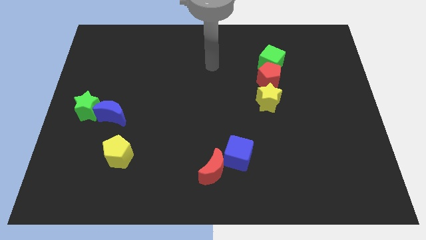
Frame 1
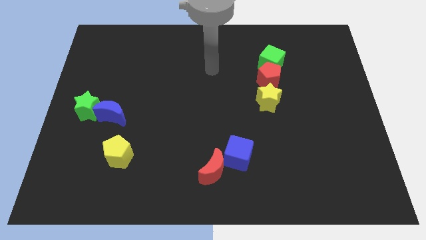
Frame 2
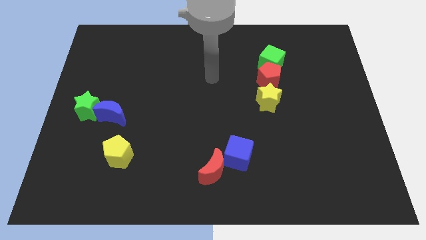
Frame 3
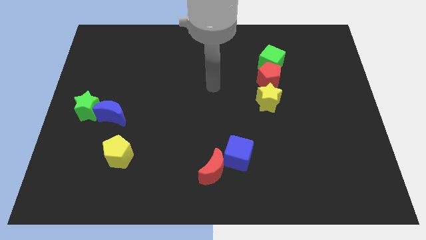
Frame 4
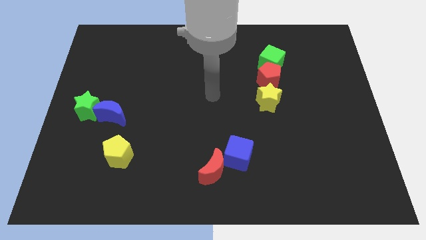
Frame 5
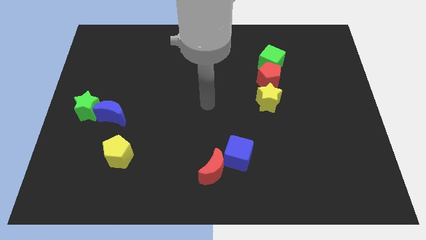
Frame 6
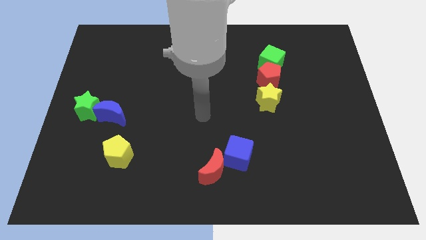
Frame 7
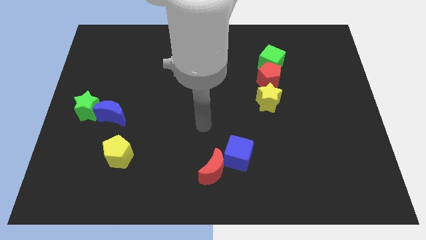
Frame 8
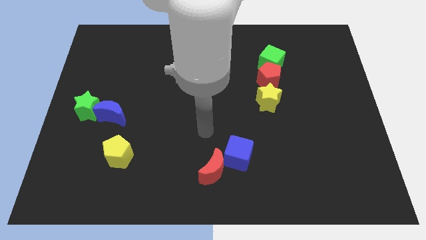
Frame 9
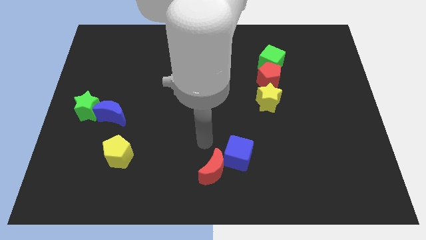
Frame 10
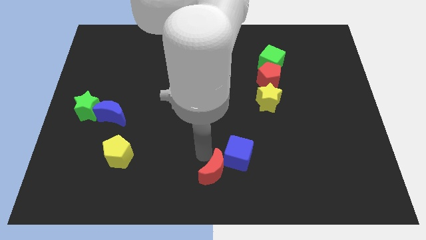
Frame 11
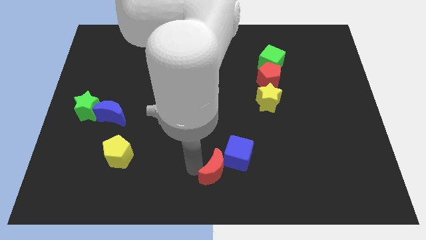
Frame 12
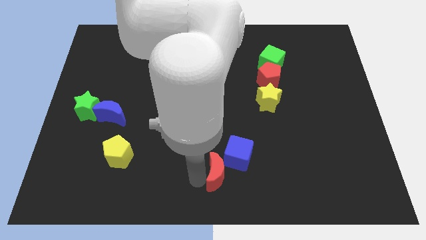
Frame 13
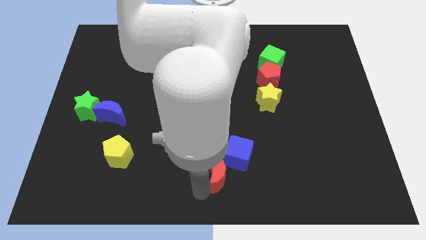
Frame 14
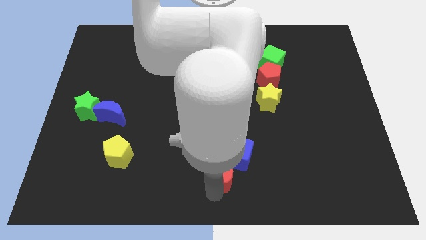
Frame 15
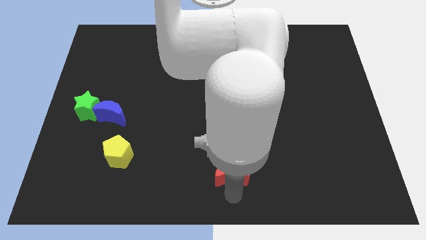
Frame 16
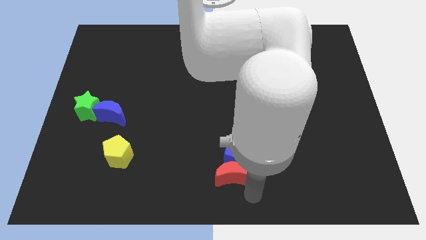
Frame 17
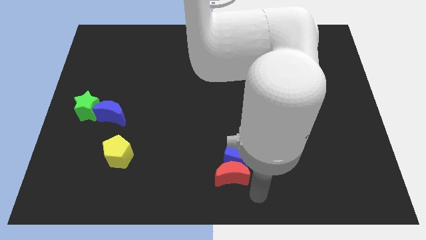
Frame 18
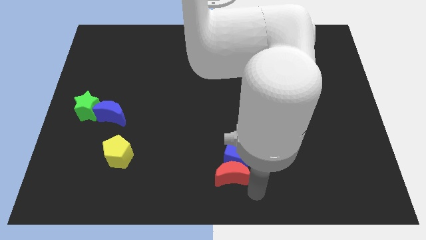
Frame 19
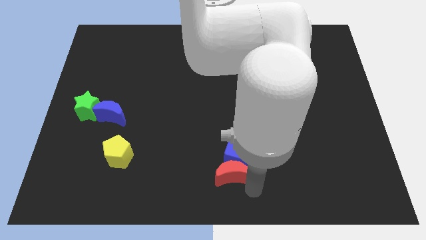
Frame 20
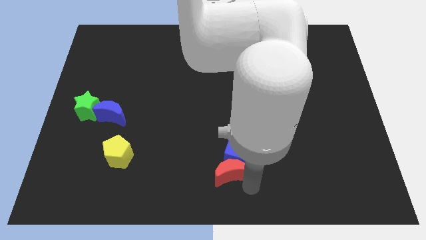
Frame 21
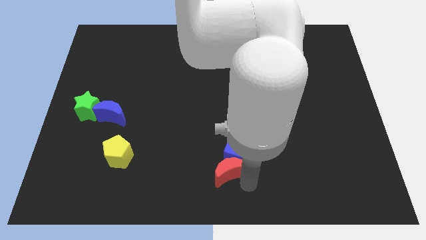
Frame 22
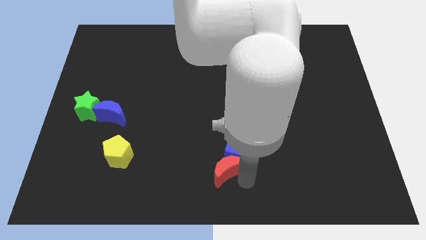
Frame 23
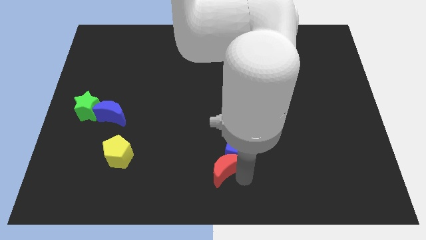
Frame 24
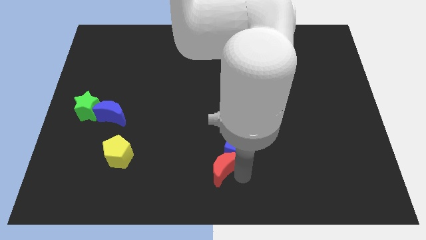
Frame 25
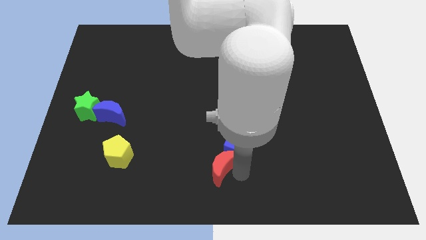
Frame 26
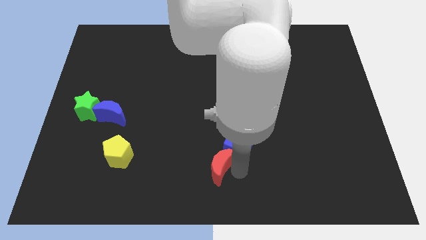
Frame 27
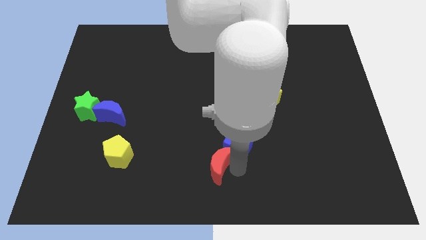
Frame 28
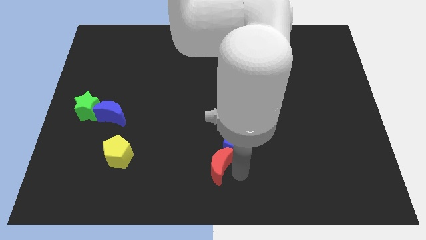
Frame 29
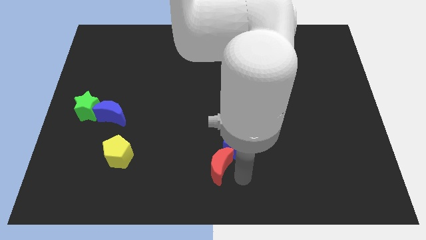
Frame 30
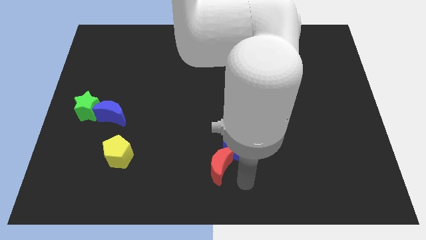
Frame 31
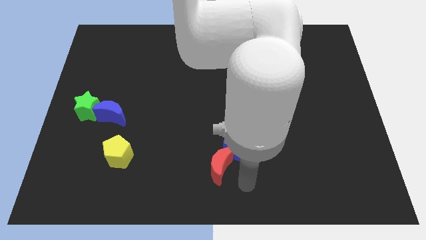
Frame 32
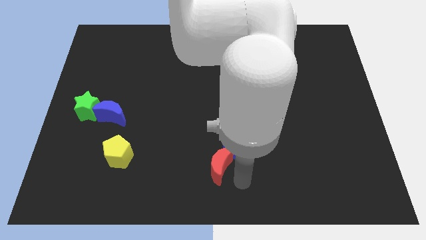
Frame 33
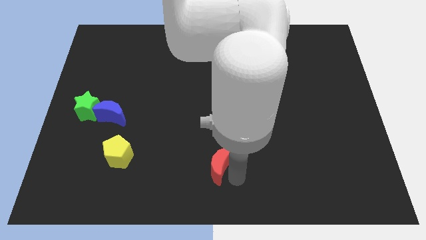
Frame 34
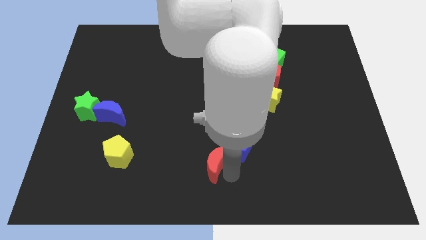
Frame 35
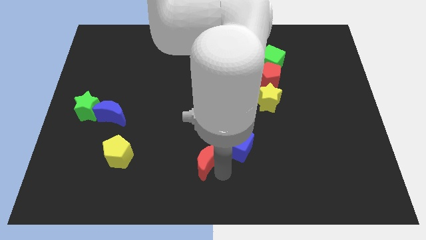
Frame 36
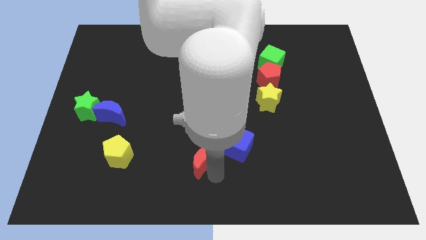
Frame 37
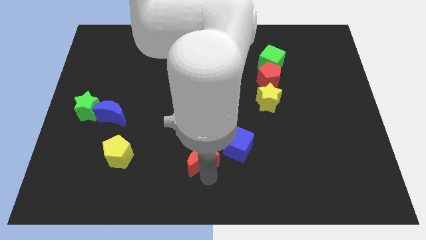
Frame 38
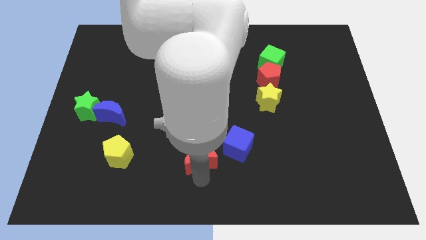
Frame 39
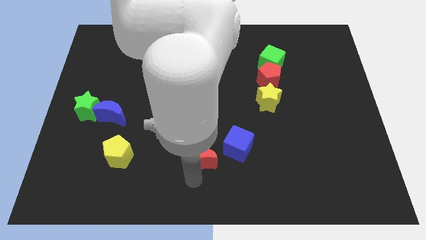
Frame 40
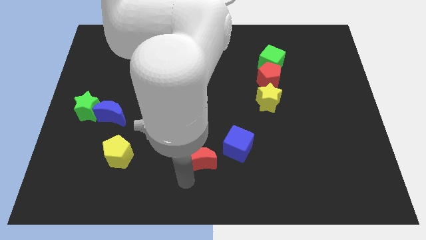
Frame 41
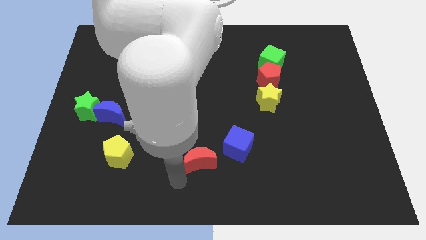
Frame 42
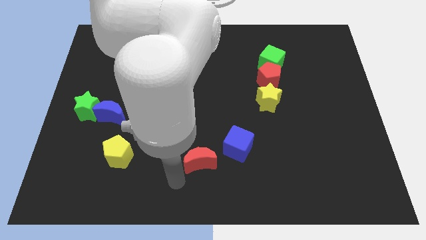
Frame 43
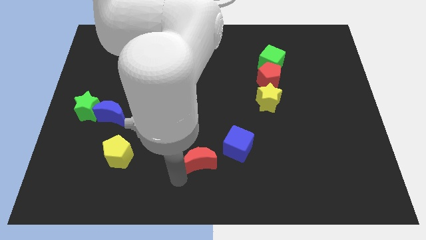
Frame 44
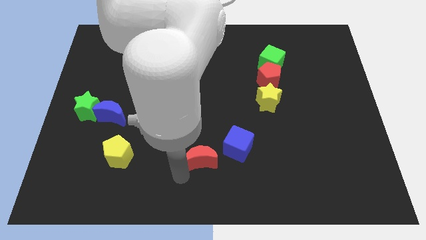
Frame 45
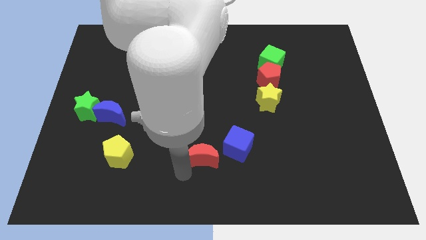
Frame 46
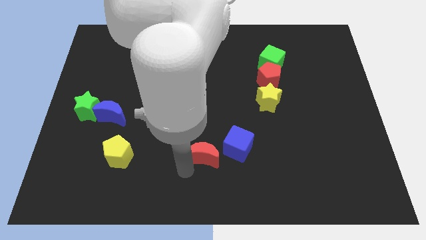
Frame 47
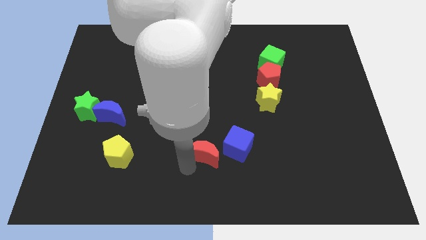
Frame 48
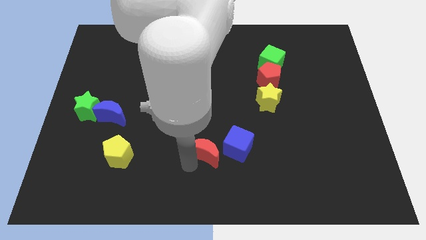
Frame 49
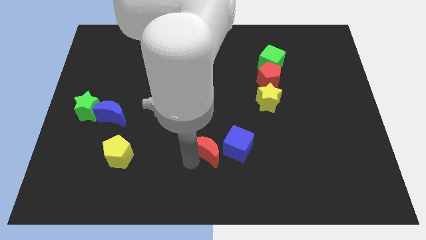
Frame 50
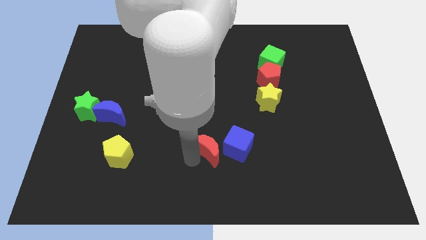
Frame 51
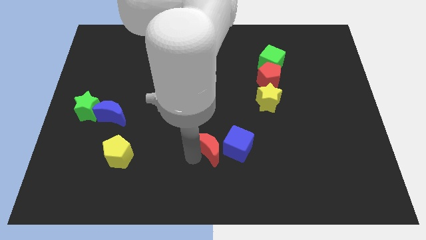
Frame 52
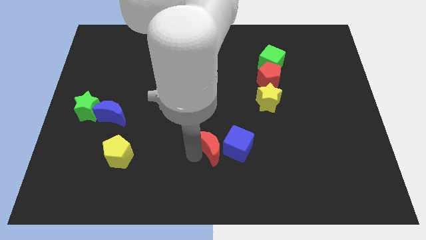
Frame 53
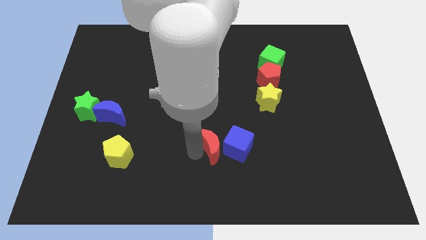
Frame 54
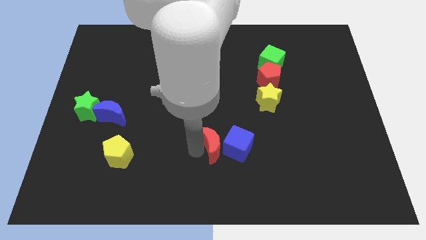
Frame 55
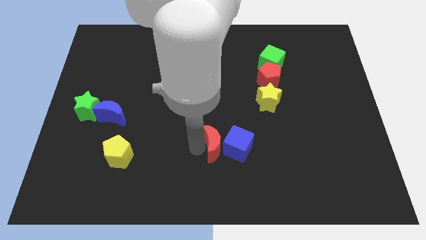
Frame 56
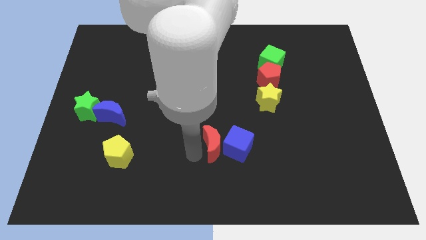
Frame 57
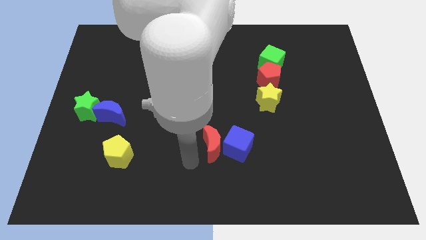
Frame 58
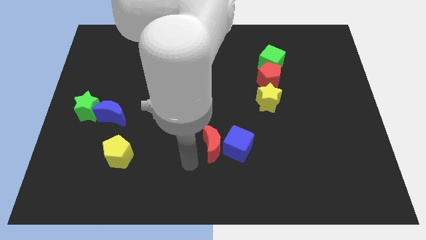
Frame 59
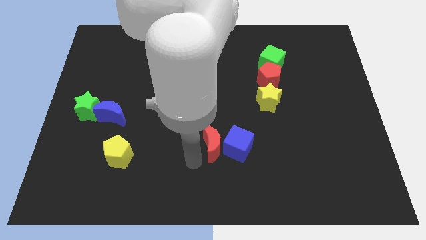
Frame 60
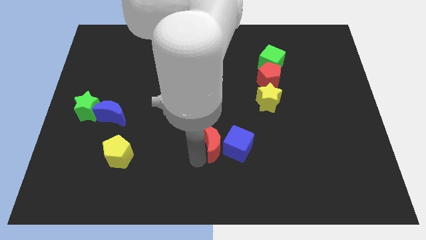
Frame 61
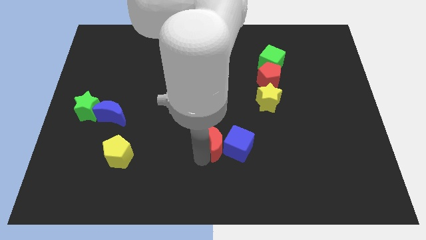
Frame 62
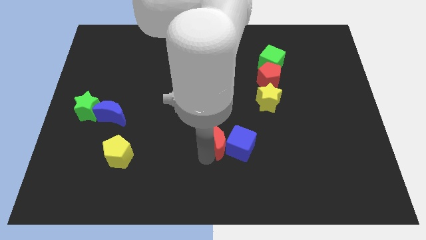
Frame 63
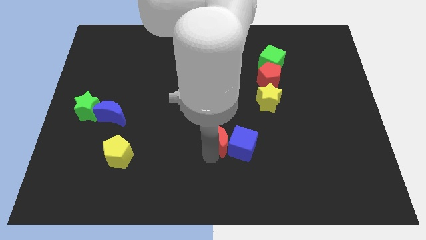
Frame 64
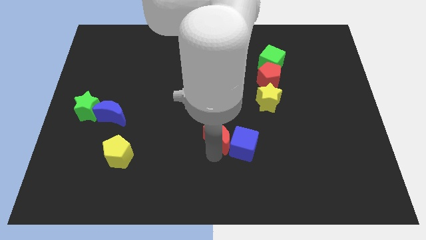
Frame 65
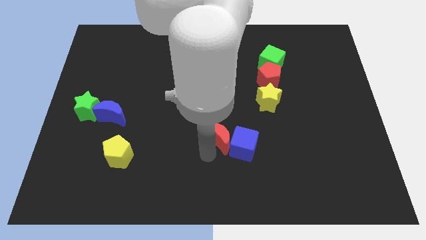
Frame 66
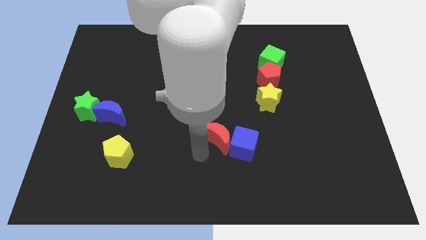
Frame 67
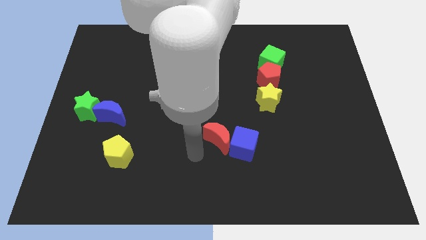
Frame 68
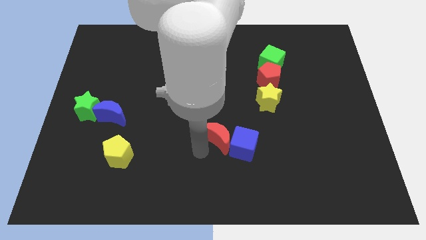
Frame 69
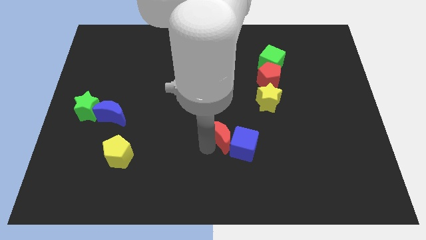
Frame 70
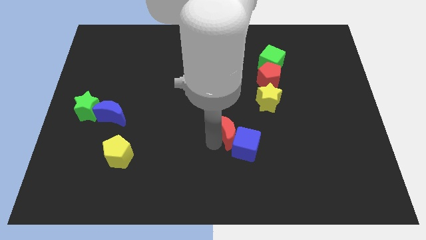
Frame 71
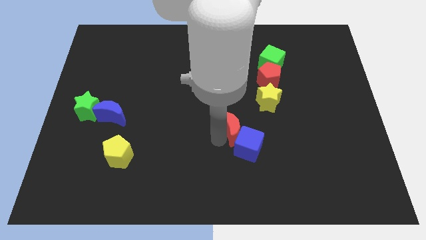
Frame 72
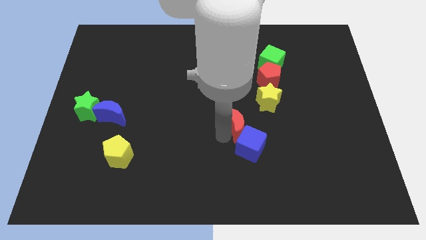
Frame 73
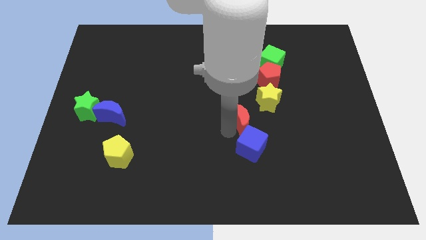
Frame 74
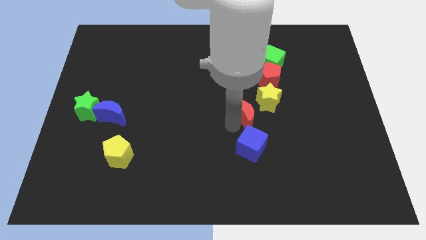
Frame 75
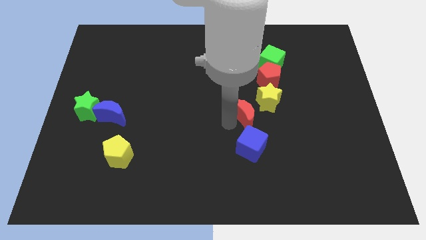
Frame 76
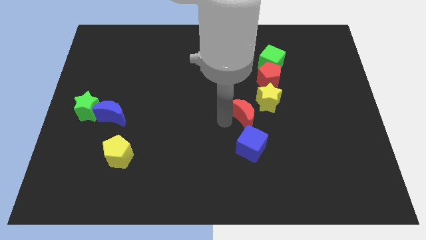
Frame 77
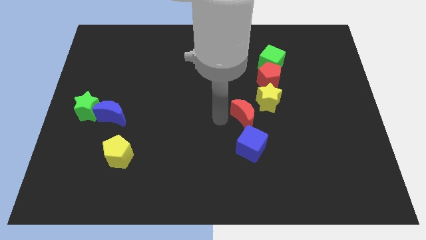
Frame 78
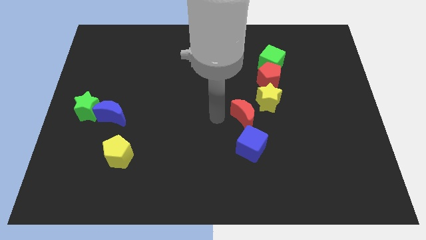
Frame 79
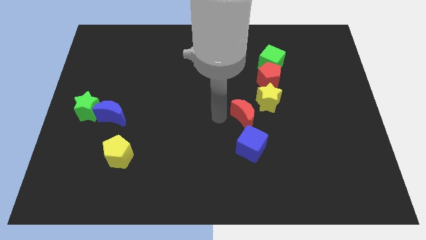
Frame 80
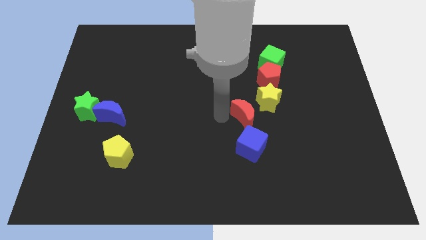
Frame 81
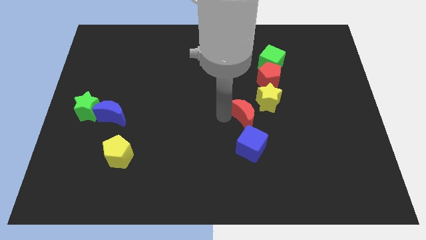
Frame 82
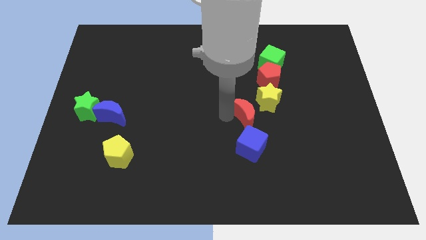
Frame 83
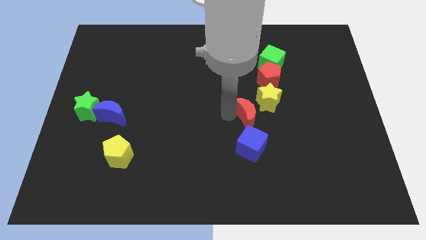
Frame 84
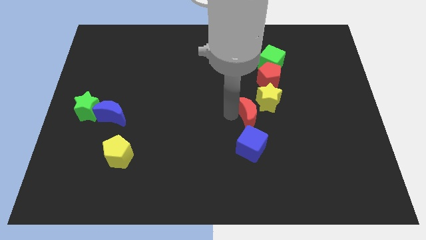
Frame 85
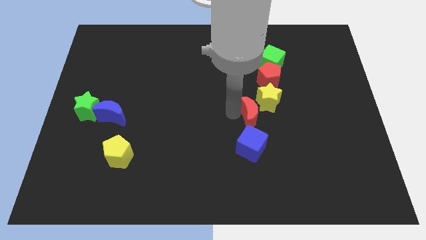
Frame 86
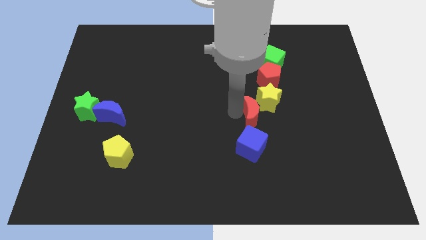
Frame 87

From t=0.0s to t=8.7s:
slide the red moon towards the yellow star
